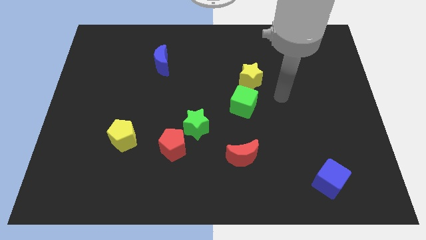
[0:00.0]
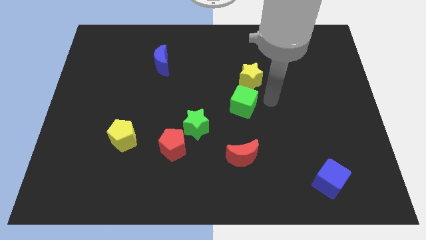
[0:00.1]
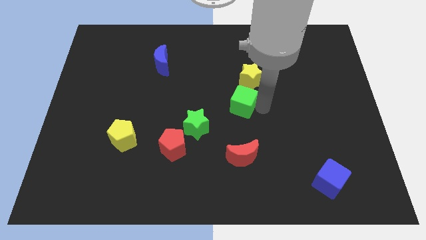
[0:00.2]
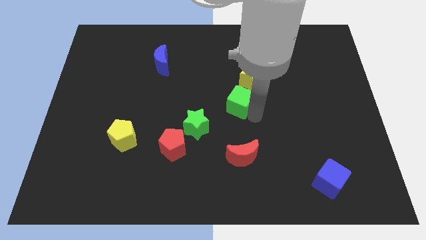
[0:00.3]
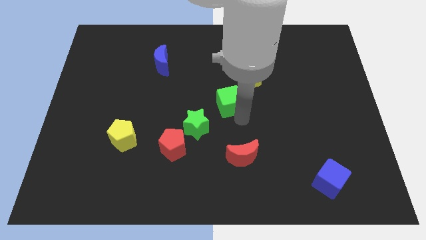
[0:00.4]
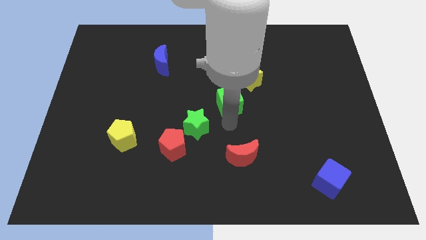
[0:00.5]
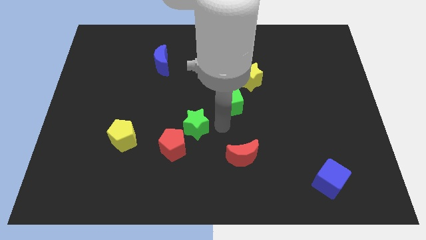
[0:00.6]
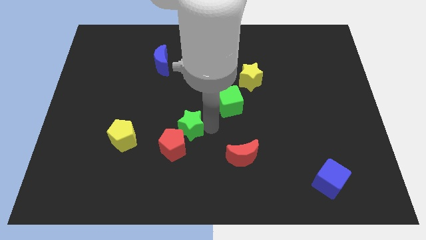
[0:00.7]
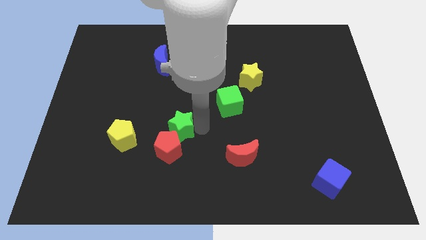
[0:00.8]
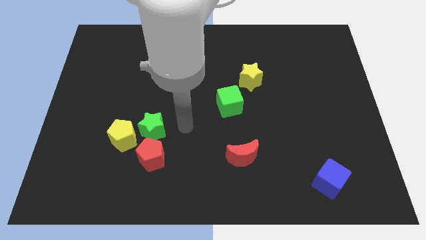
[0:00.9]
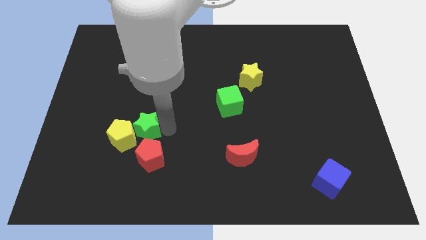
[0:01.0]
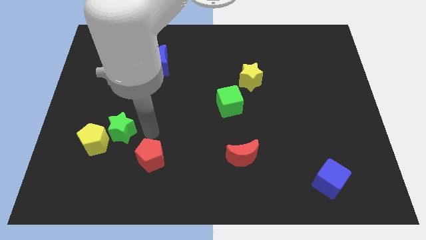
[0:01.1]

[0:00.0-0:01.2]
pull the red pentagon apart from the green star

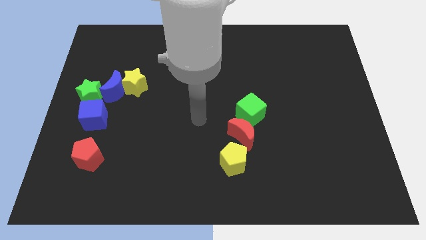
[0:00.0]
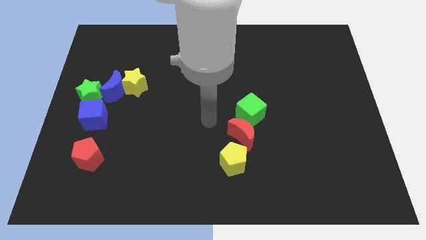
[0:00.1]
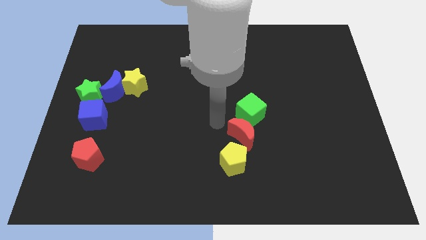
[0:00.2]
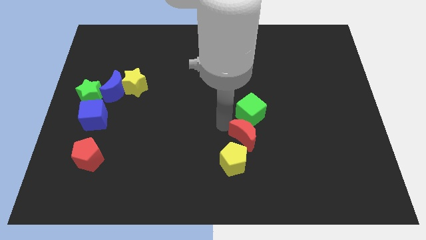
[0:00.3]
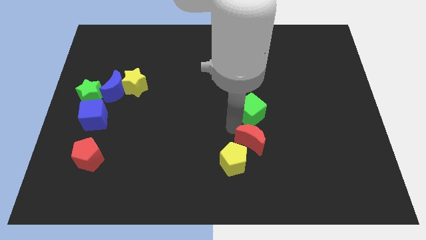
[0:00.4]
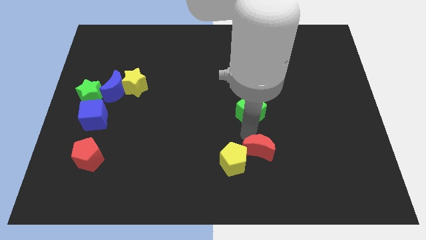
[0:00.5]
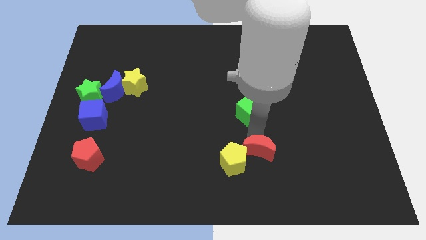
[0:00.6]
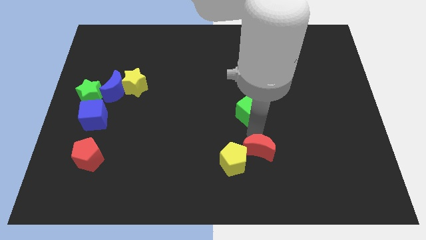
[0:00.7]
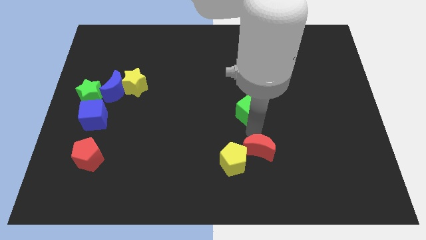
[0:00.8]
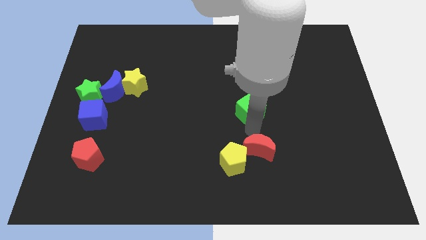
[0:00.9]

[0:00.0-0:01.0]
separate the green cube from the red moon

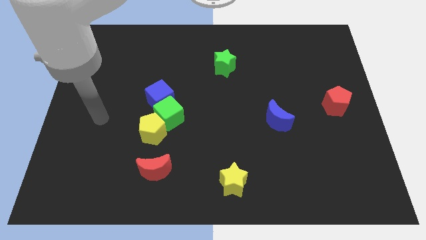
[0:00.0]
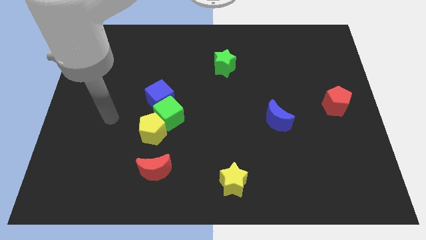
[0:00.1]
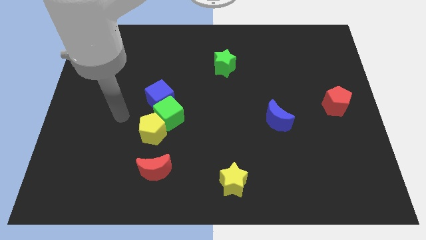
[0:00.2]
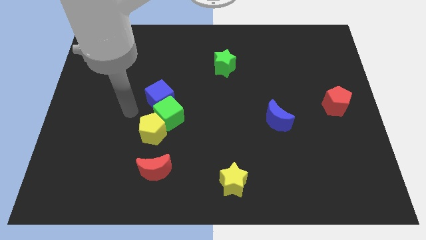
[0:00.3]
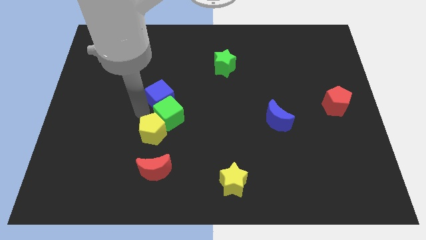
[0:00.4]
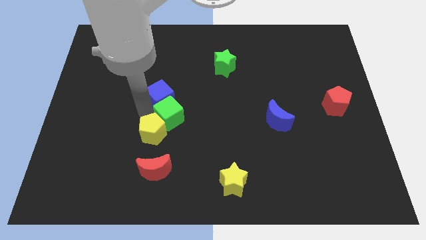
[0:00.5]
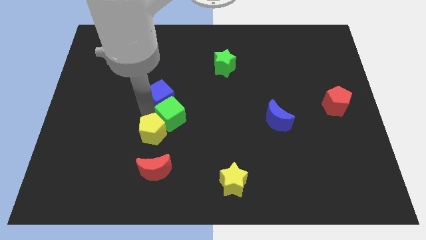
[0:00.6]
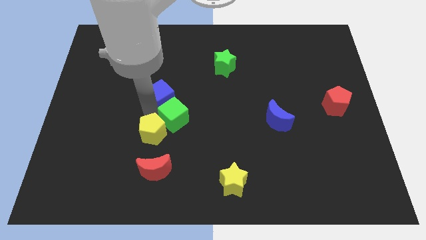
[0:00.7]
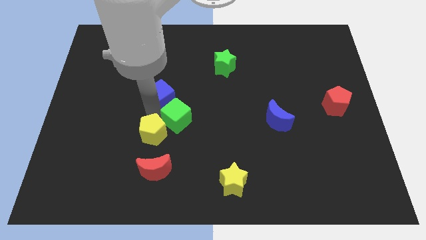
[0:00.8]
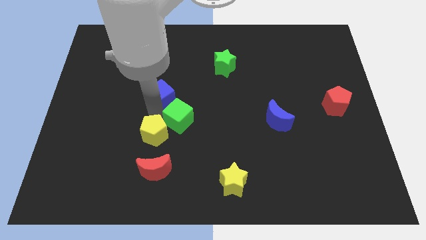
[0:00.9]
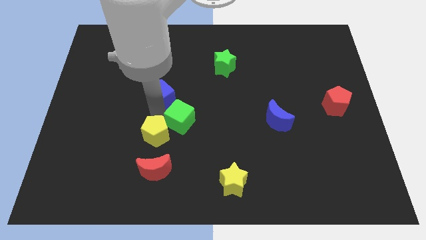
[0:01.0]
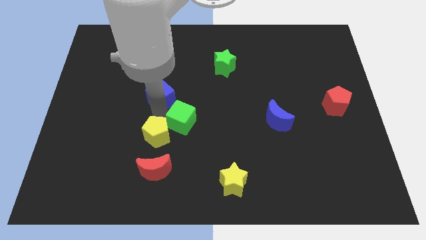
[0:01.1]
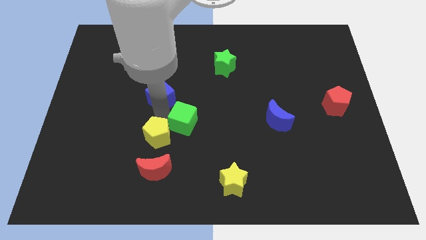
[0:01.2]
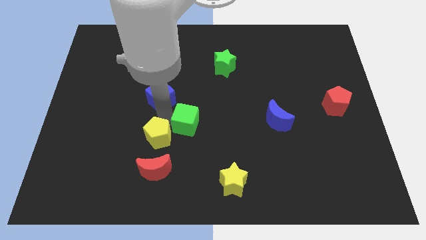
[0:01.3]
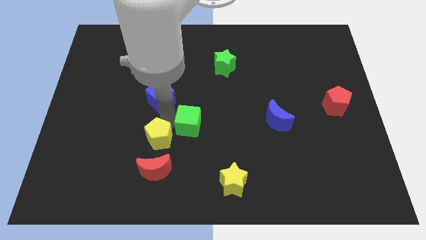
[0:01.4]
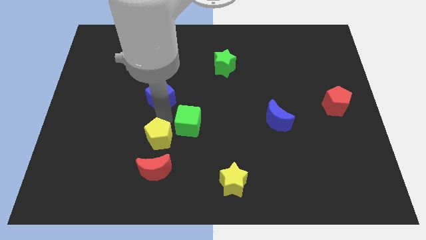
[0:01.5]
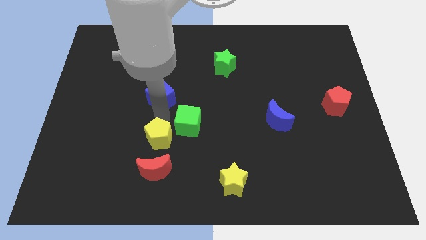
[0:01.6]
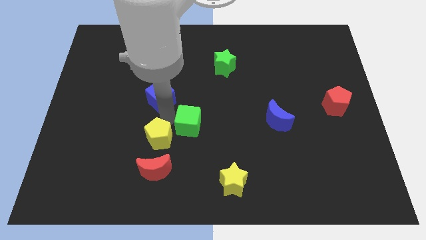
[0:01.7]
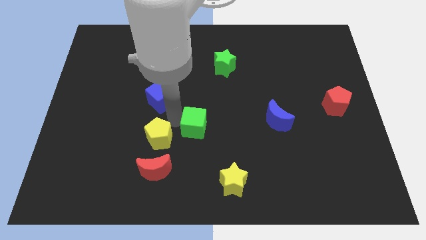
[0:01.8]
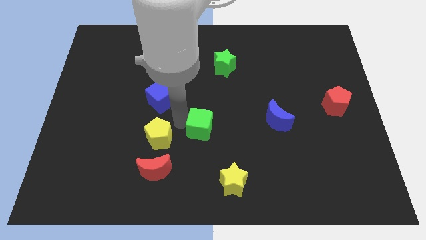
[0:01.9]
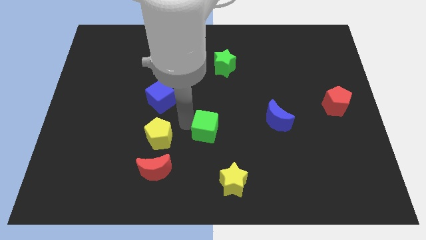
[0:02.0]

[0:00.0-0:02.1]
move the green cube away from the yellow pentagon and blue cube

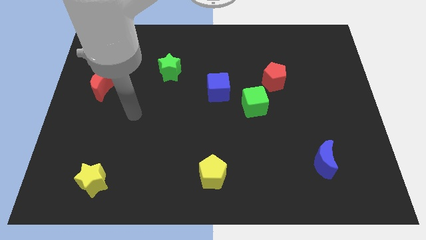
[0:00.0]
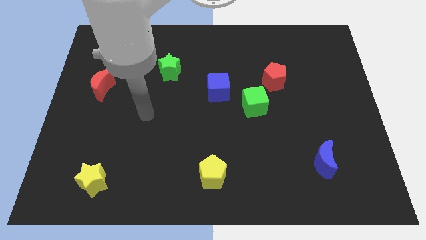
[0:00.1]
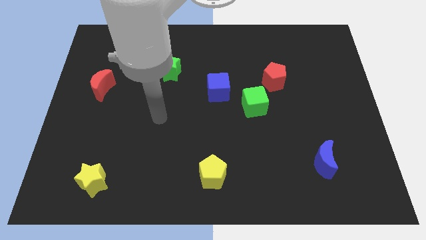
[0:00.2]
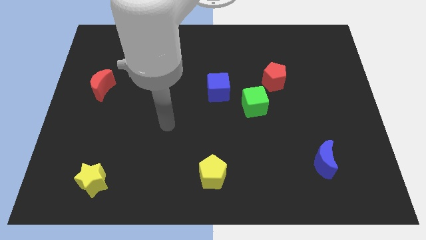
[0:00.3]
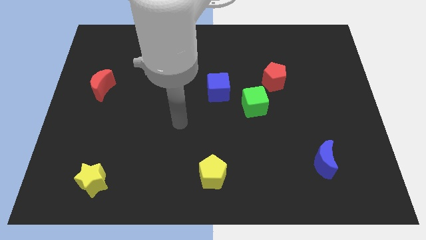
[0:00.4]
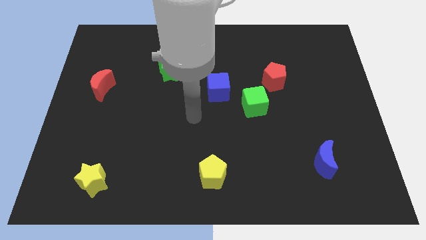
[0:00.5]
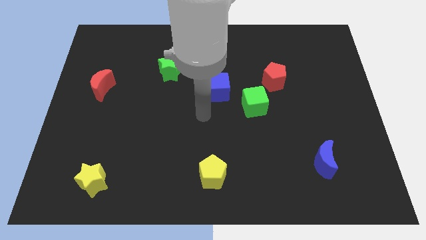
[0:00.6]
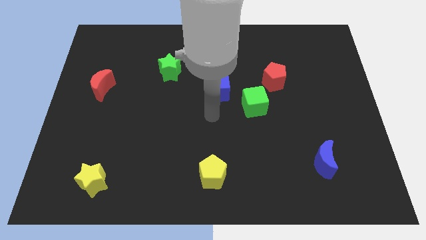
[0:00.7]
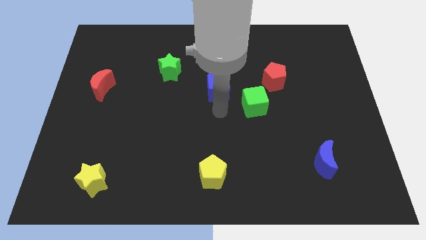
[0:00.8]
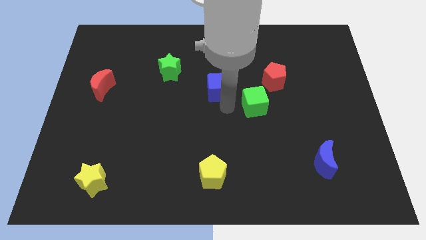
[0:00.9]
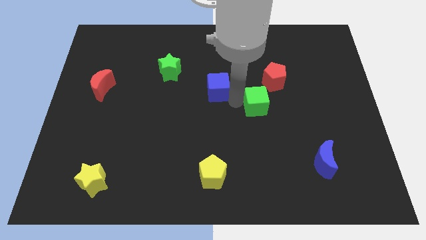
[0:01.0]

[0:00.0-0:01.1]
move the blue cube away from the green cube

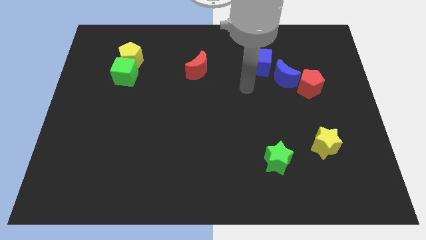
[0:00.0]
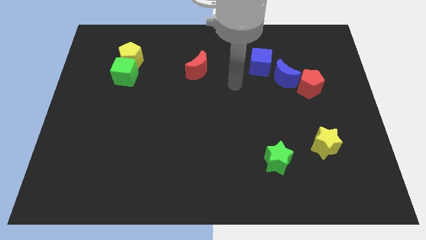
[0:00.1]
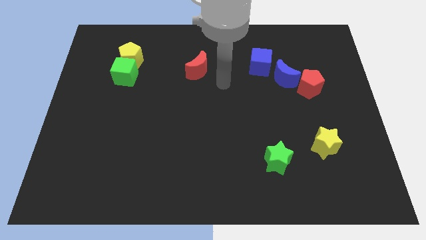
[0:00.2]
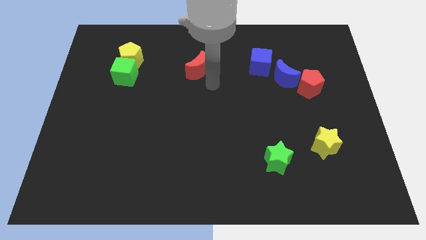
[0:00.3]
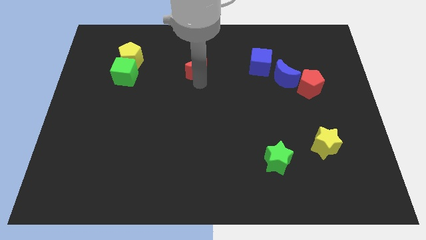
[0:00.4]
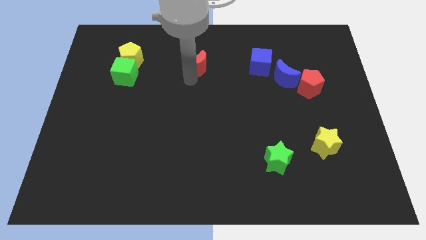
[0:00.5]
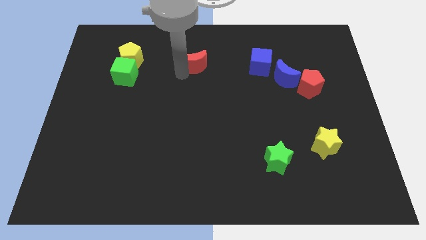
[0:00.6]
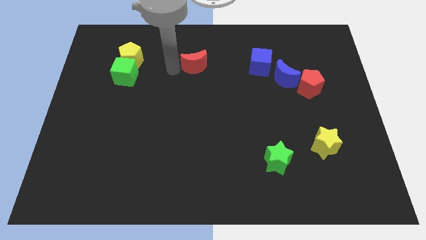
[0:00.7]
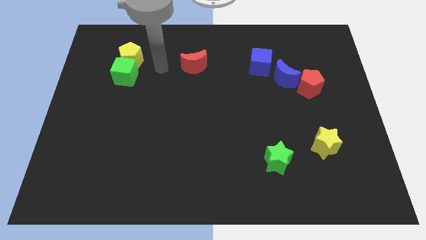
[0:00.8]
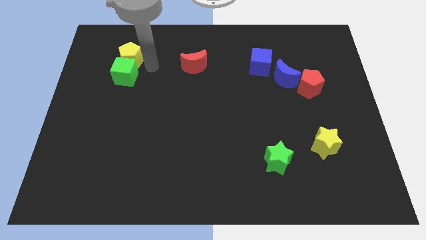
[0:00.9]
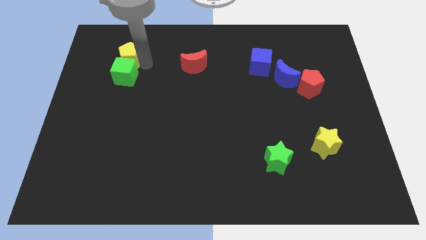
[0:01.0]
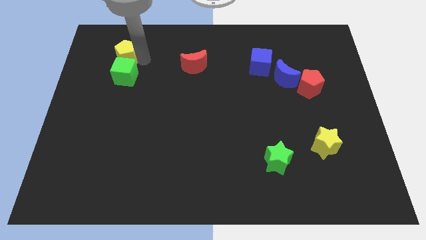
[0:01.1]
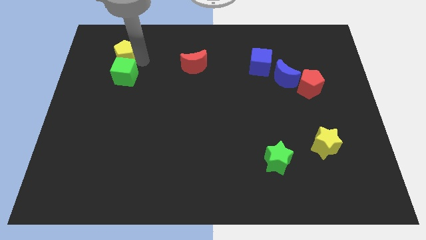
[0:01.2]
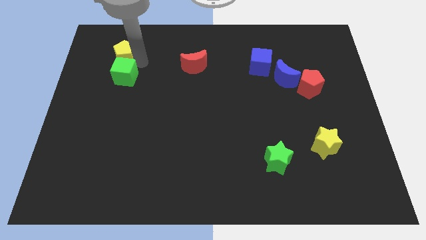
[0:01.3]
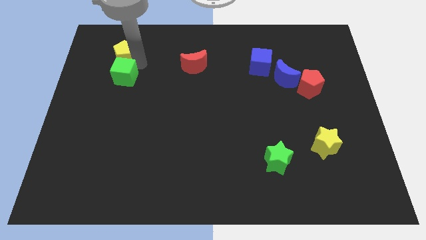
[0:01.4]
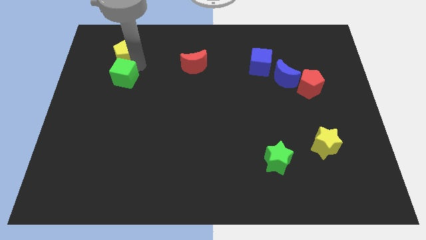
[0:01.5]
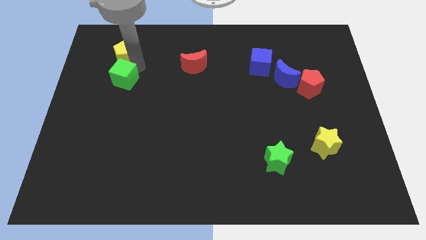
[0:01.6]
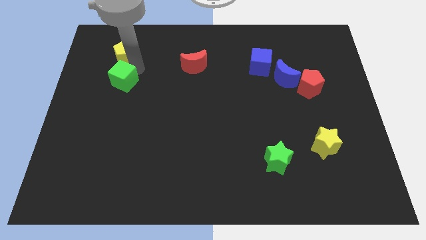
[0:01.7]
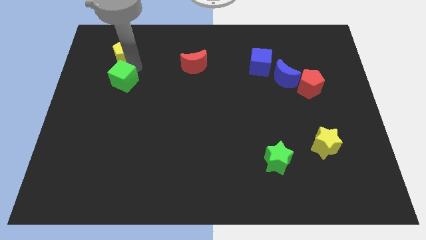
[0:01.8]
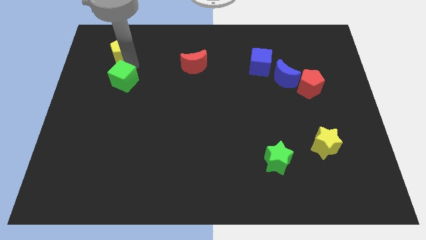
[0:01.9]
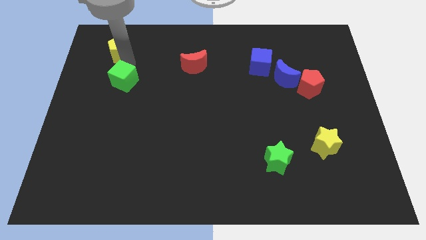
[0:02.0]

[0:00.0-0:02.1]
move the green cube away from the yellow pentagon

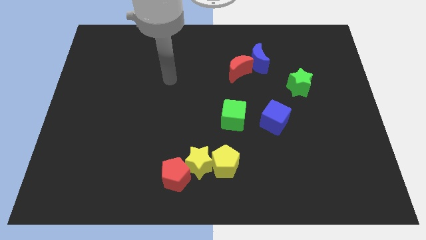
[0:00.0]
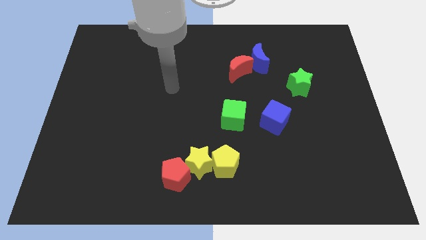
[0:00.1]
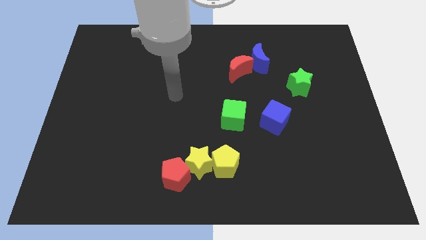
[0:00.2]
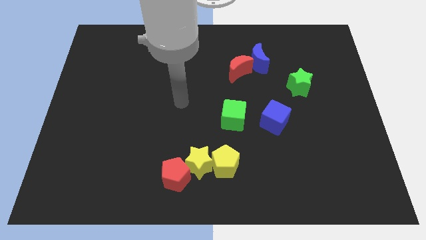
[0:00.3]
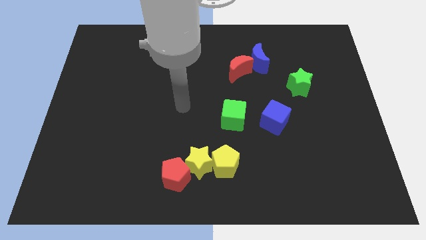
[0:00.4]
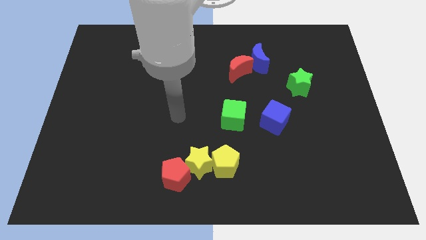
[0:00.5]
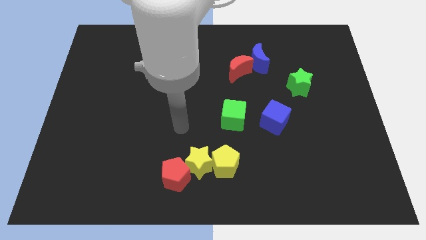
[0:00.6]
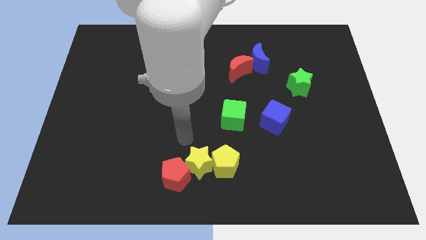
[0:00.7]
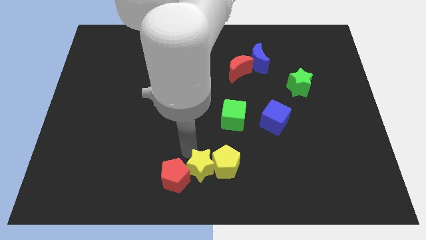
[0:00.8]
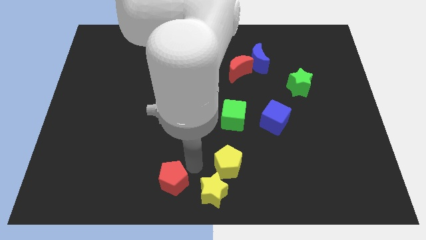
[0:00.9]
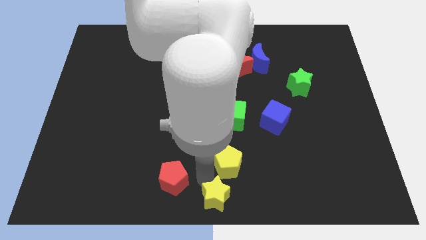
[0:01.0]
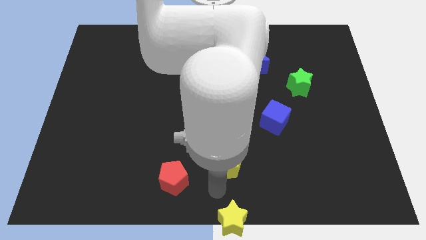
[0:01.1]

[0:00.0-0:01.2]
separate the yellow pentagon from the yellow star

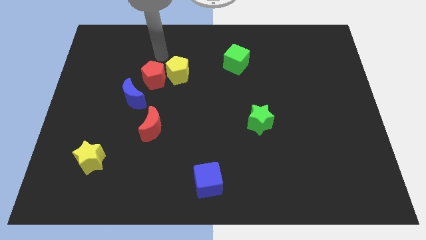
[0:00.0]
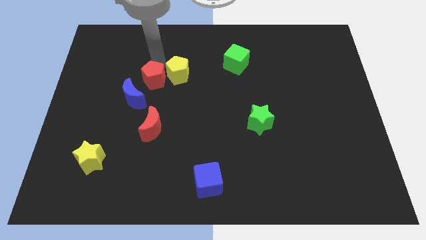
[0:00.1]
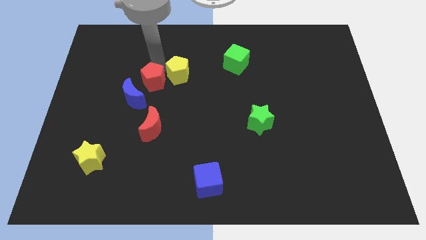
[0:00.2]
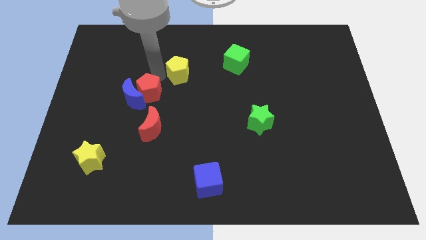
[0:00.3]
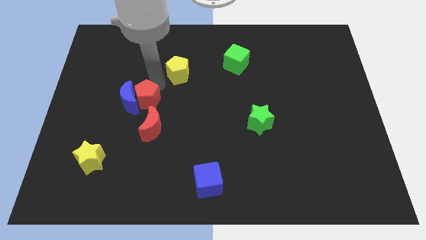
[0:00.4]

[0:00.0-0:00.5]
separate the yellow pentagon from the red pentagon

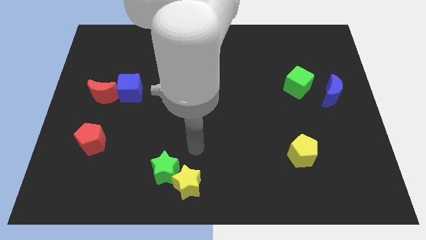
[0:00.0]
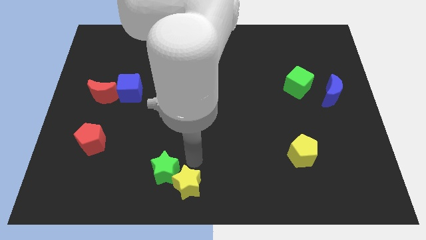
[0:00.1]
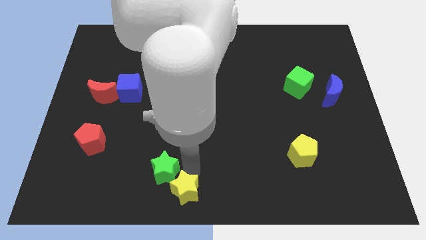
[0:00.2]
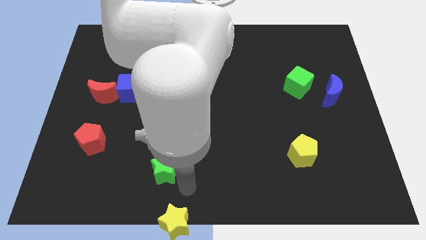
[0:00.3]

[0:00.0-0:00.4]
pull the green star apart from the yellow star
